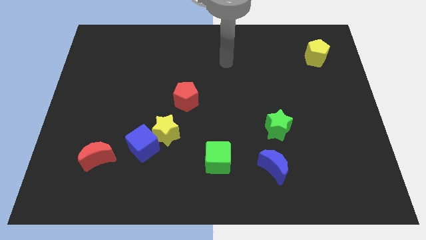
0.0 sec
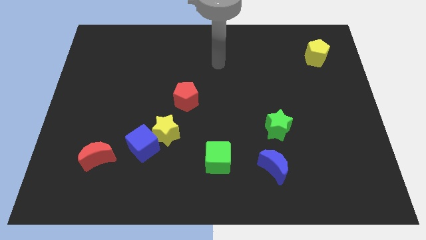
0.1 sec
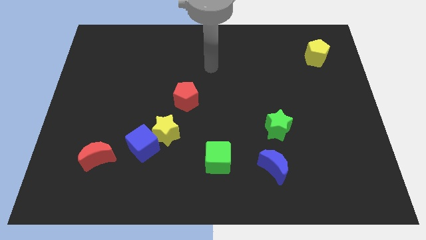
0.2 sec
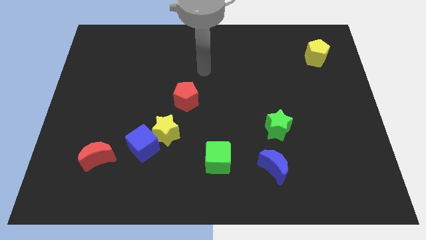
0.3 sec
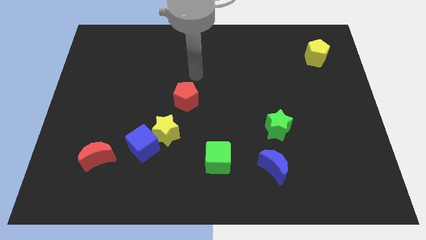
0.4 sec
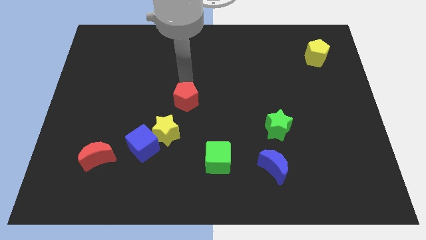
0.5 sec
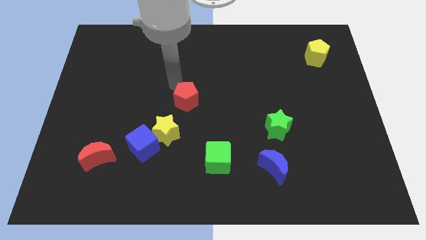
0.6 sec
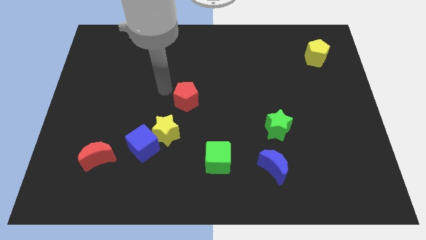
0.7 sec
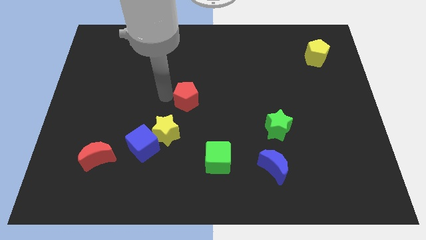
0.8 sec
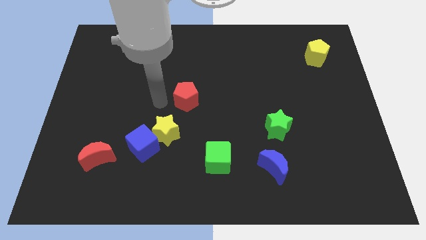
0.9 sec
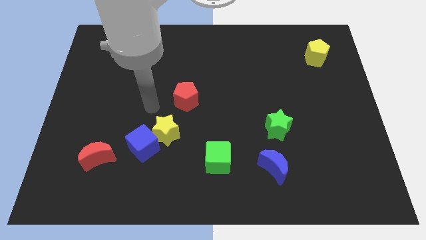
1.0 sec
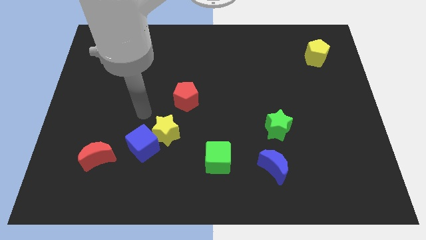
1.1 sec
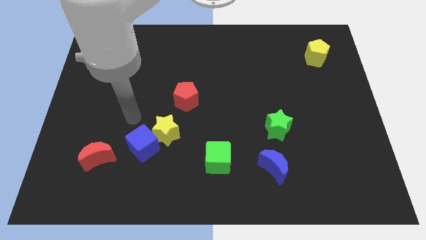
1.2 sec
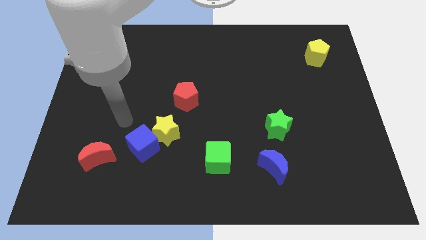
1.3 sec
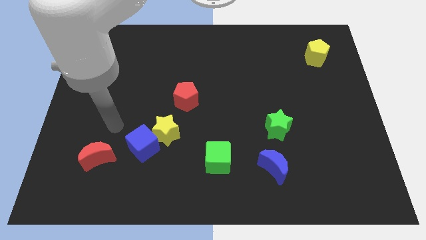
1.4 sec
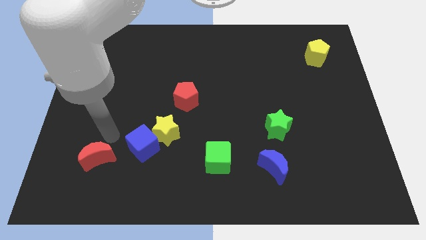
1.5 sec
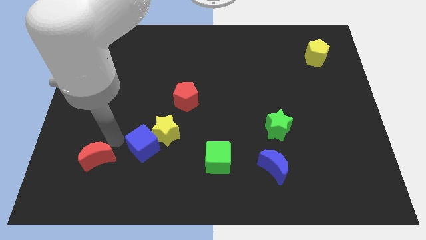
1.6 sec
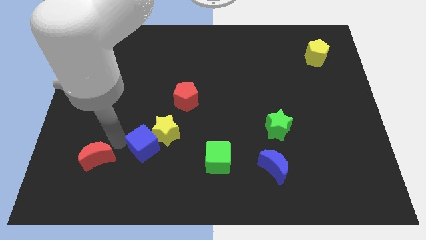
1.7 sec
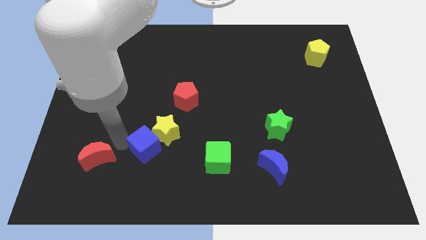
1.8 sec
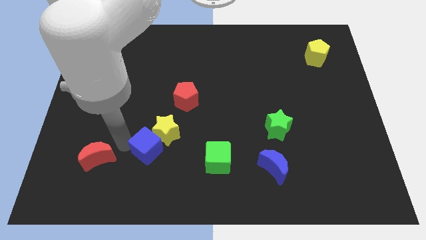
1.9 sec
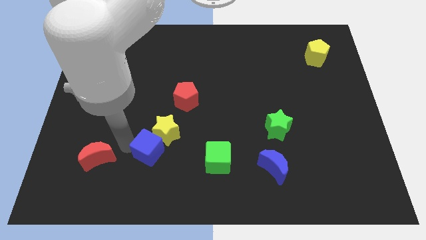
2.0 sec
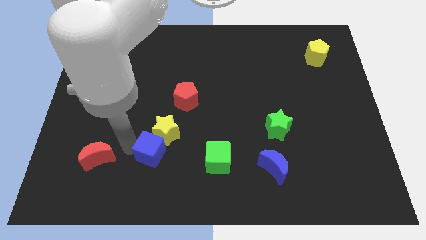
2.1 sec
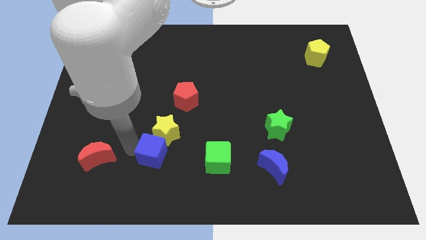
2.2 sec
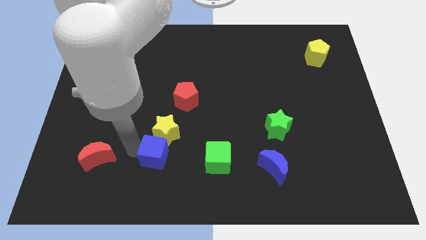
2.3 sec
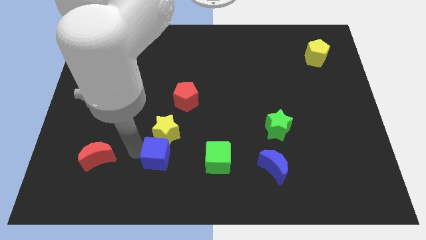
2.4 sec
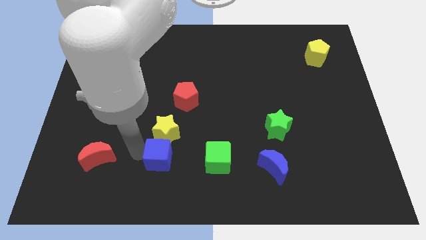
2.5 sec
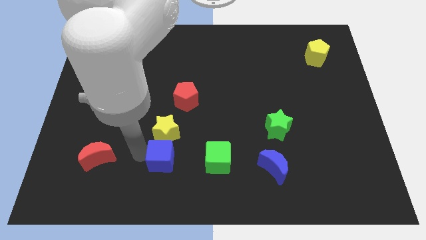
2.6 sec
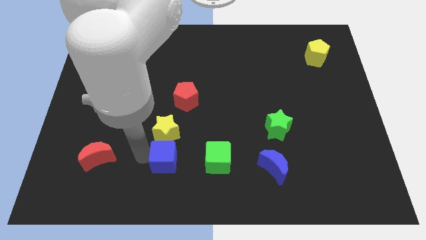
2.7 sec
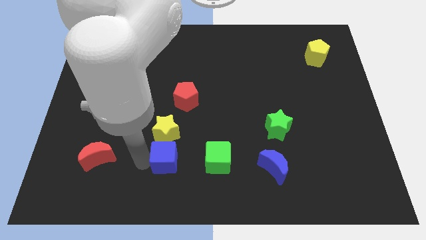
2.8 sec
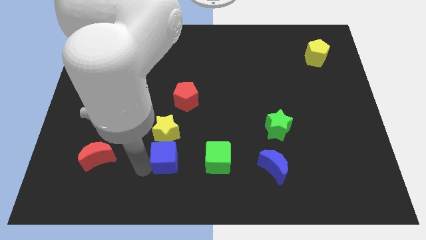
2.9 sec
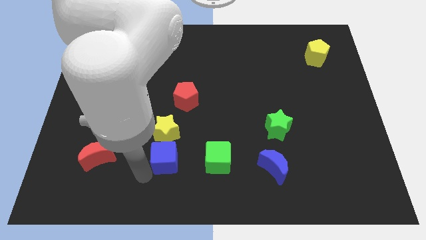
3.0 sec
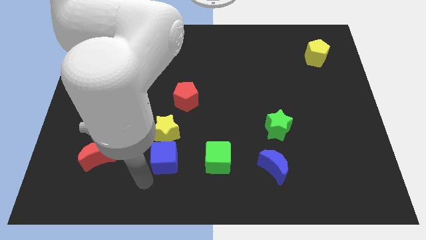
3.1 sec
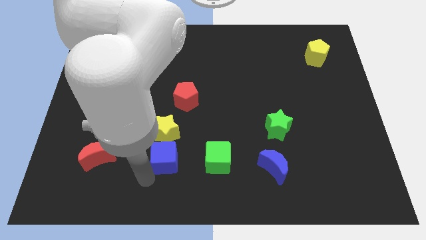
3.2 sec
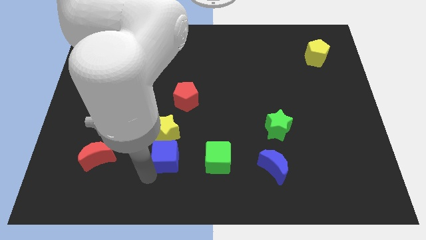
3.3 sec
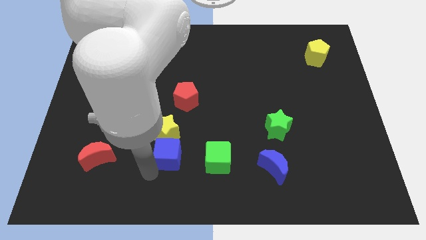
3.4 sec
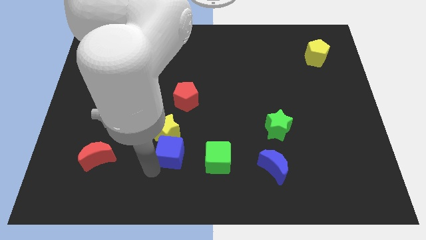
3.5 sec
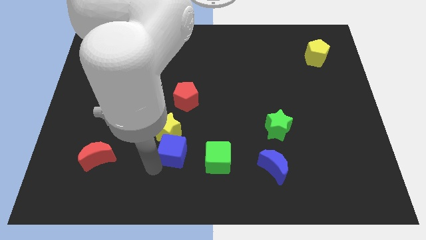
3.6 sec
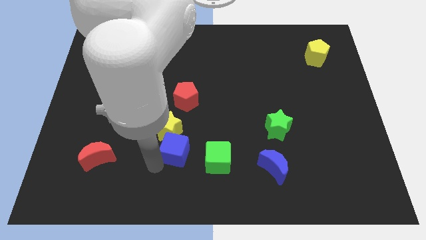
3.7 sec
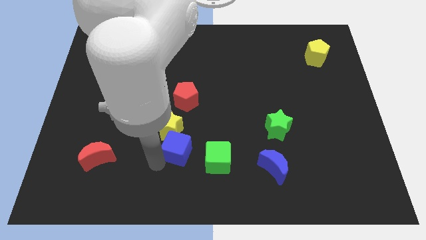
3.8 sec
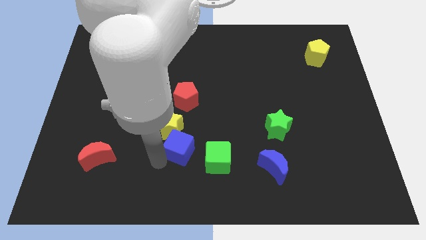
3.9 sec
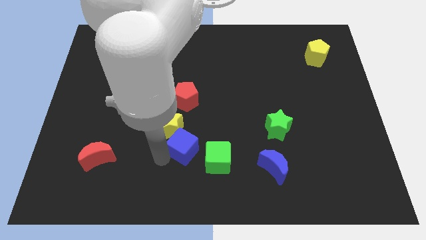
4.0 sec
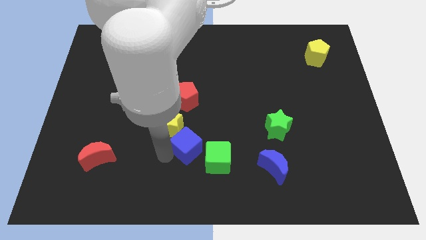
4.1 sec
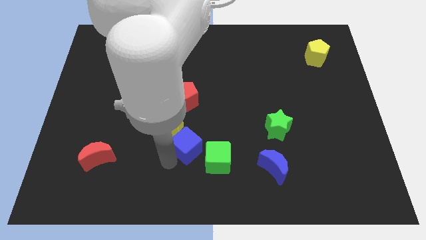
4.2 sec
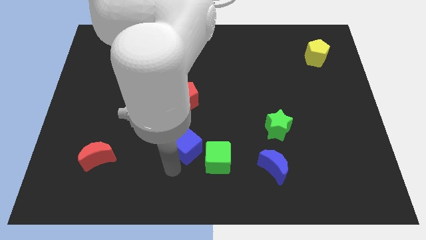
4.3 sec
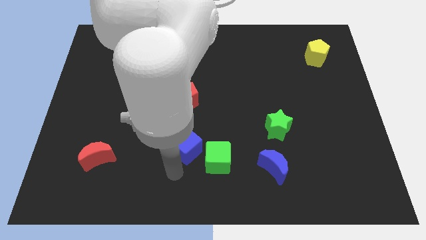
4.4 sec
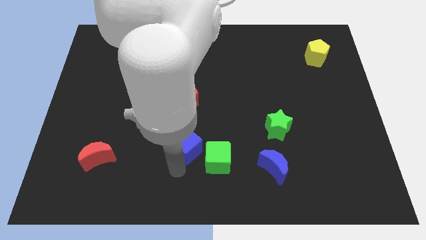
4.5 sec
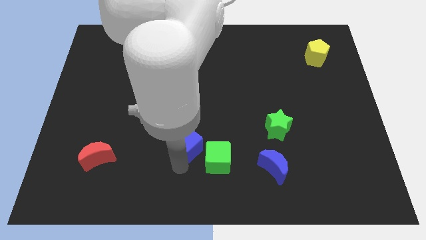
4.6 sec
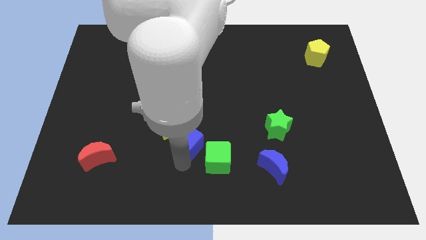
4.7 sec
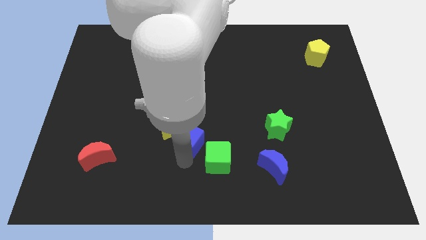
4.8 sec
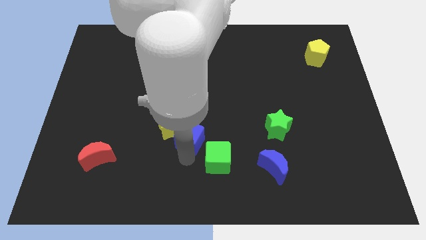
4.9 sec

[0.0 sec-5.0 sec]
slide the blue cube a bit up and to the right diagonally

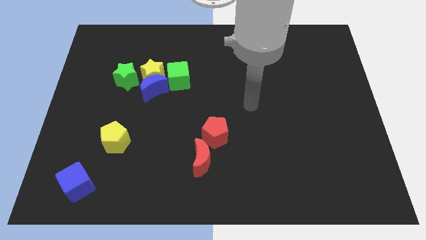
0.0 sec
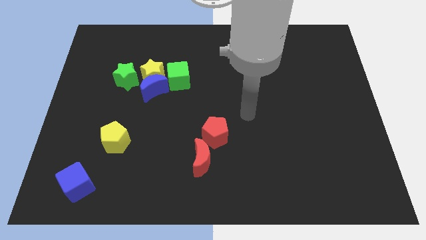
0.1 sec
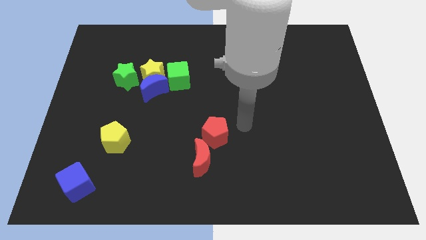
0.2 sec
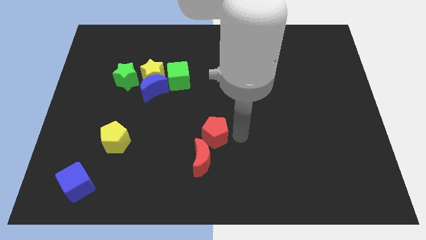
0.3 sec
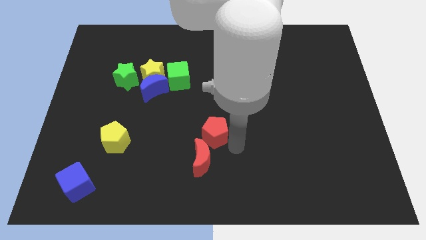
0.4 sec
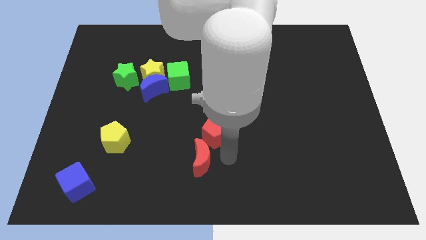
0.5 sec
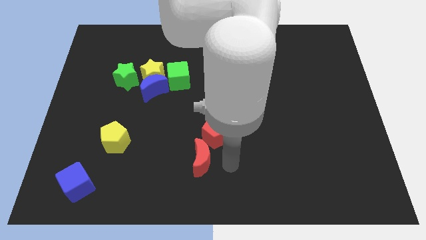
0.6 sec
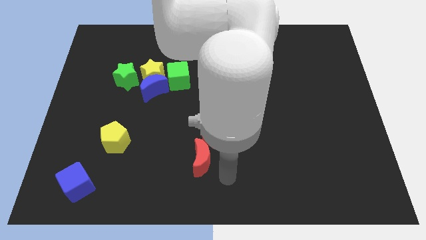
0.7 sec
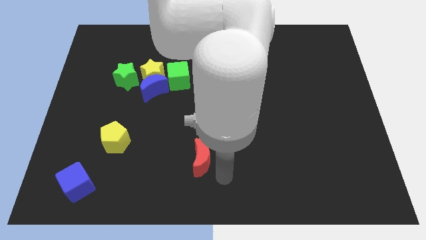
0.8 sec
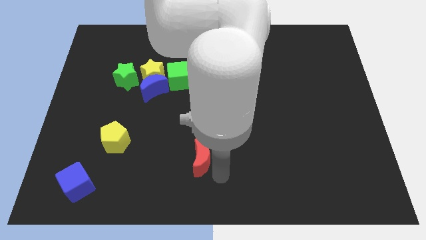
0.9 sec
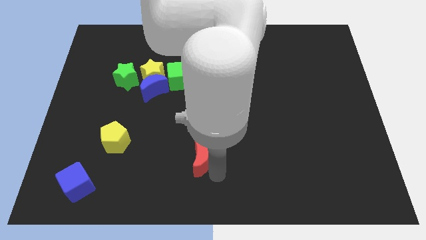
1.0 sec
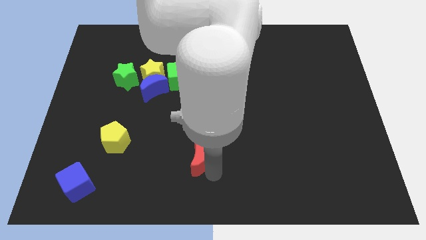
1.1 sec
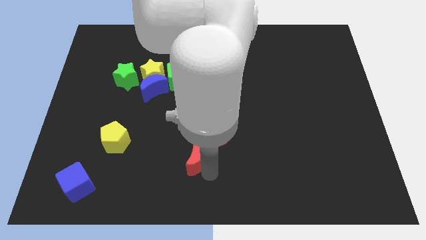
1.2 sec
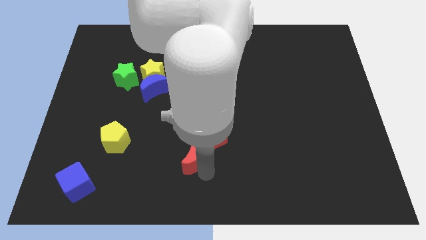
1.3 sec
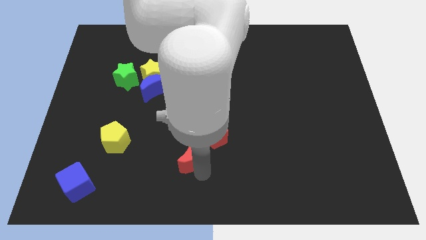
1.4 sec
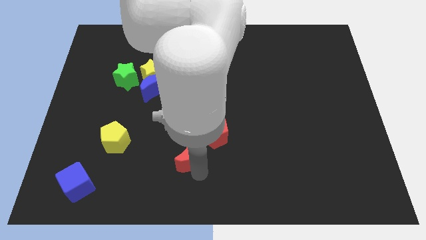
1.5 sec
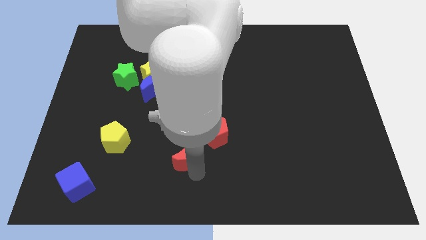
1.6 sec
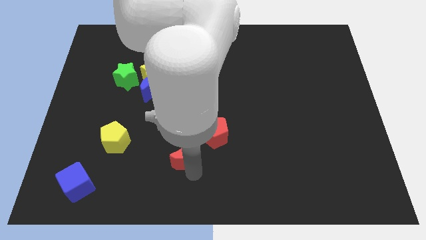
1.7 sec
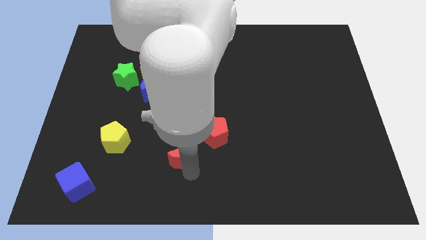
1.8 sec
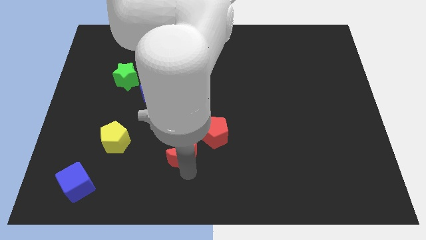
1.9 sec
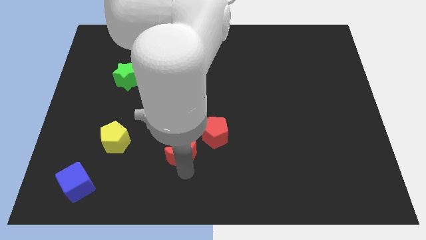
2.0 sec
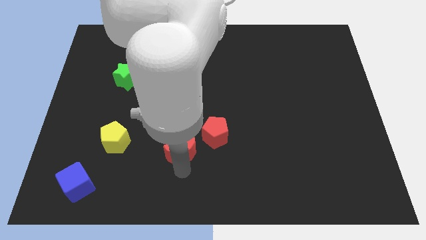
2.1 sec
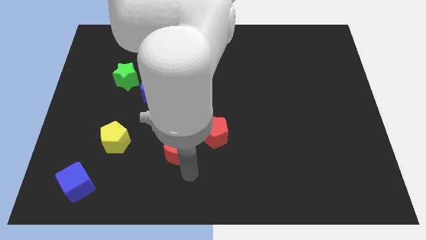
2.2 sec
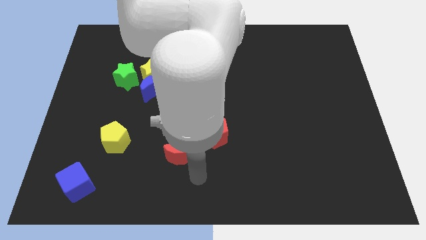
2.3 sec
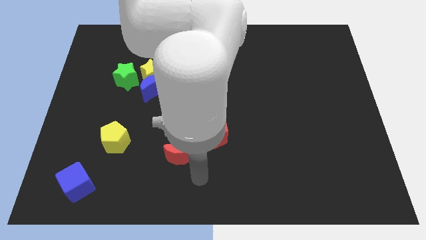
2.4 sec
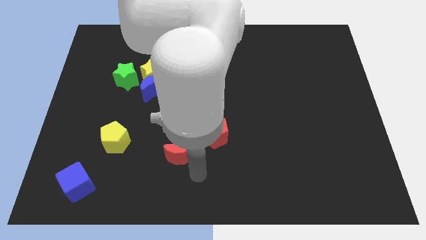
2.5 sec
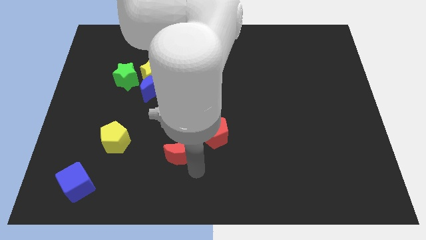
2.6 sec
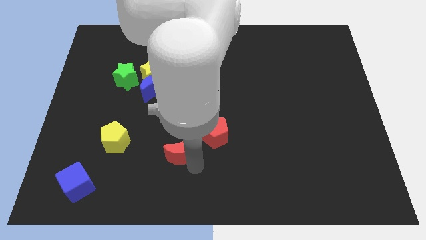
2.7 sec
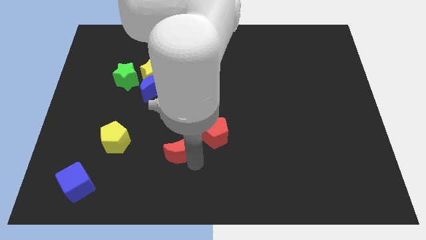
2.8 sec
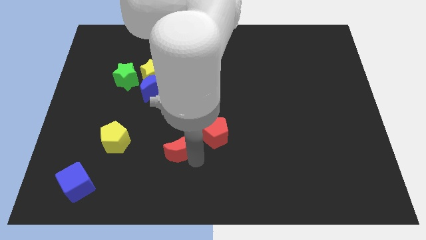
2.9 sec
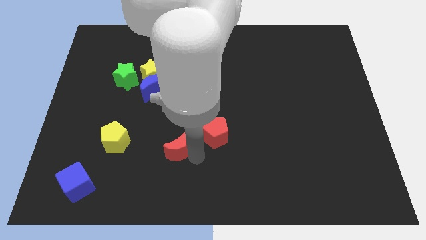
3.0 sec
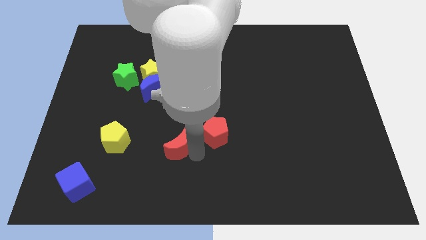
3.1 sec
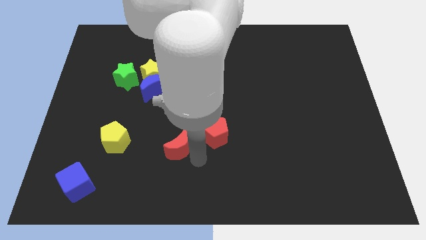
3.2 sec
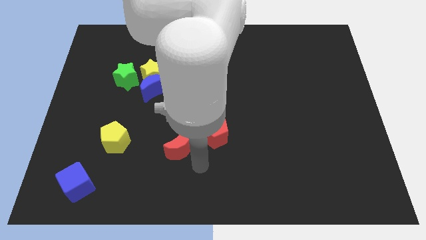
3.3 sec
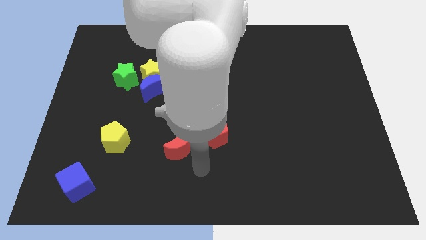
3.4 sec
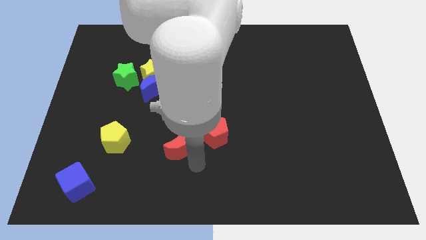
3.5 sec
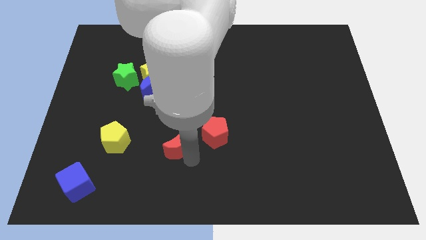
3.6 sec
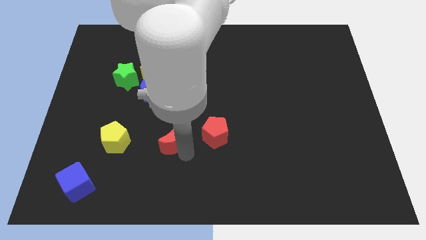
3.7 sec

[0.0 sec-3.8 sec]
push the red moon slightly diagonally upwards and left
